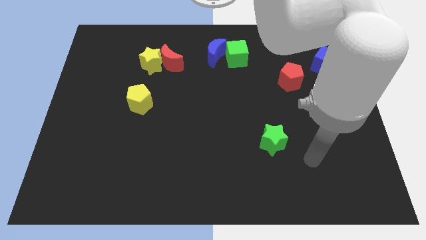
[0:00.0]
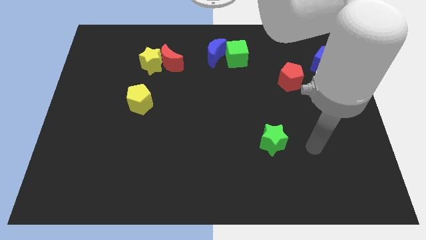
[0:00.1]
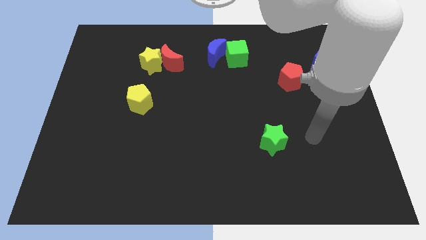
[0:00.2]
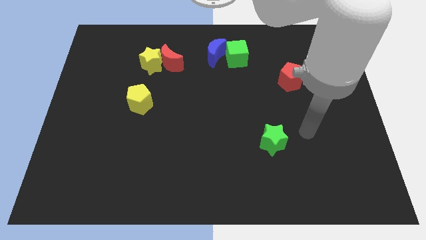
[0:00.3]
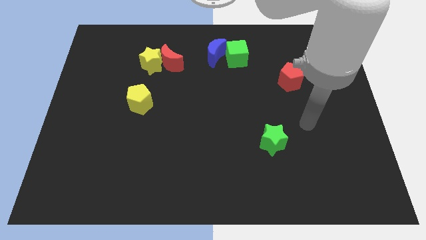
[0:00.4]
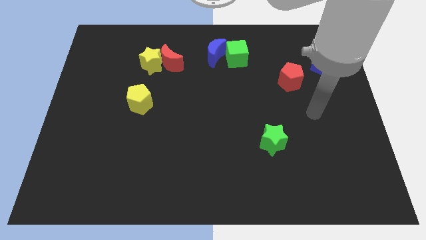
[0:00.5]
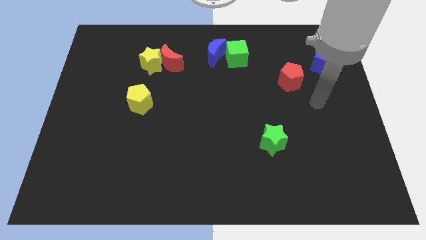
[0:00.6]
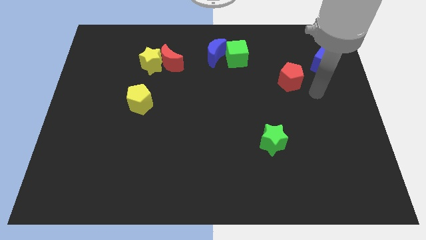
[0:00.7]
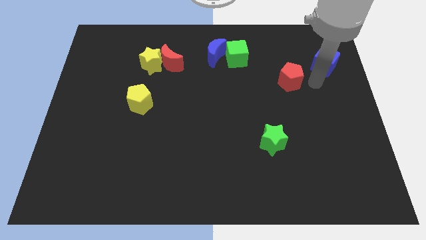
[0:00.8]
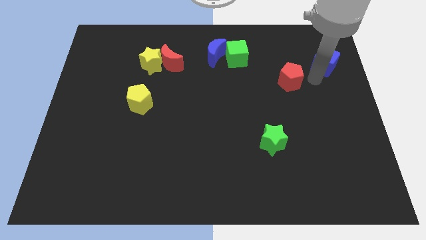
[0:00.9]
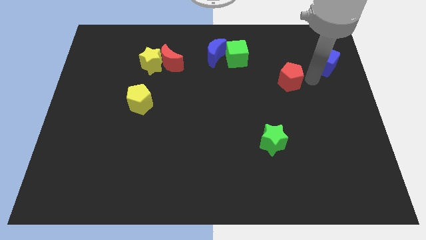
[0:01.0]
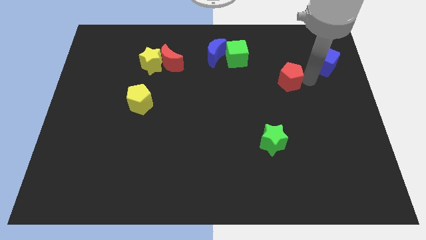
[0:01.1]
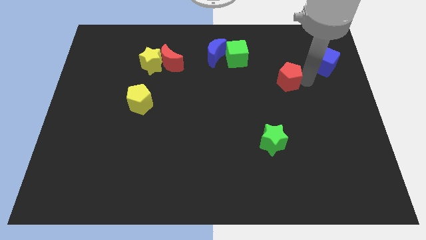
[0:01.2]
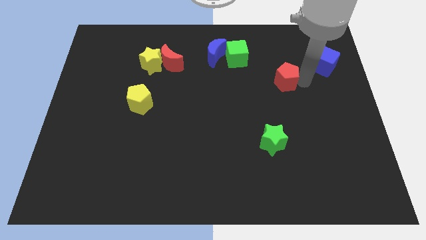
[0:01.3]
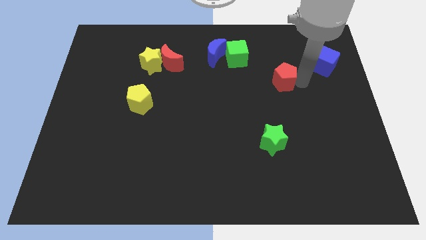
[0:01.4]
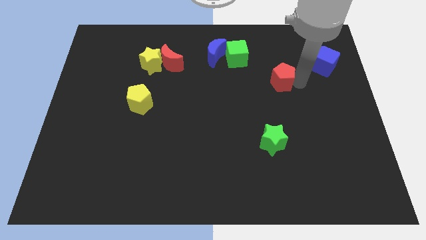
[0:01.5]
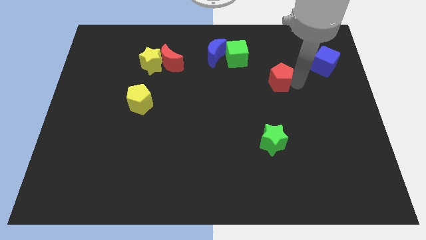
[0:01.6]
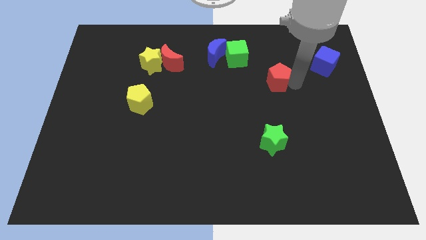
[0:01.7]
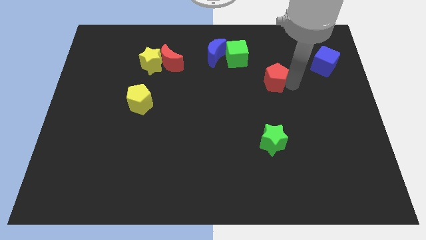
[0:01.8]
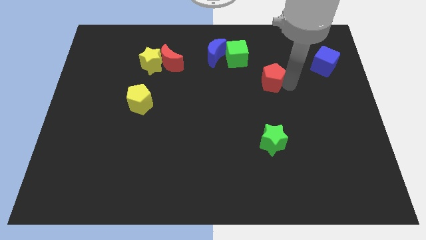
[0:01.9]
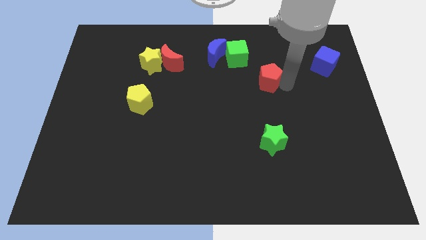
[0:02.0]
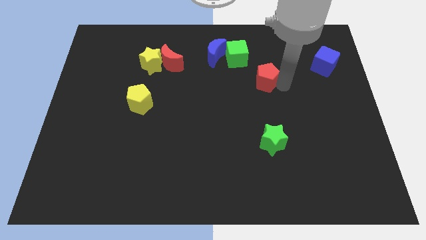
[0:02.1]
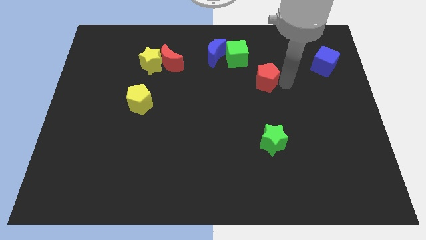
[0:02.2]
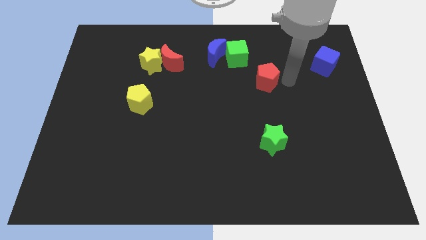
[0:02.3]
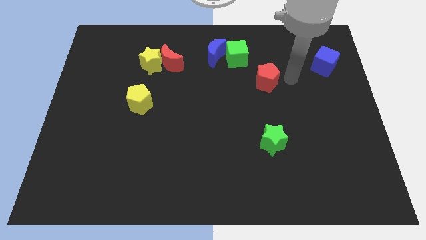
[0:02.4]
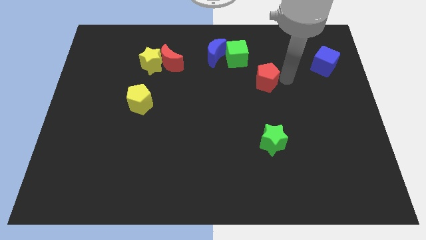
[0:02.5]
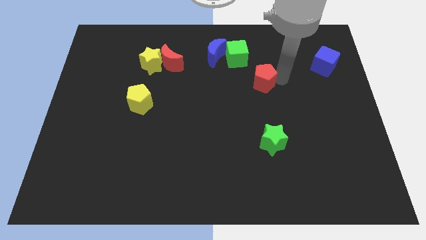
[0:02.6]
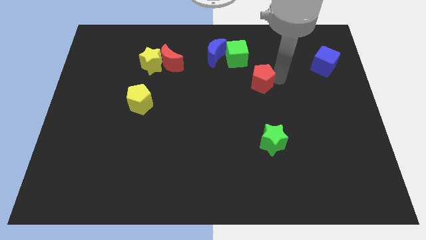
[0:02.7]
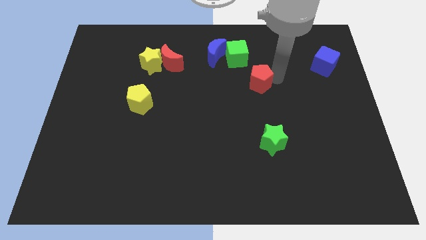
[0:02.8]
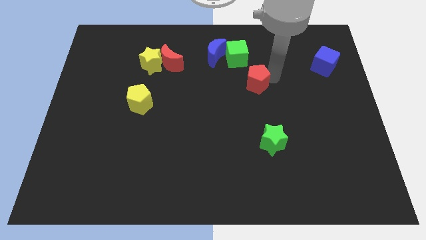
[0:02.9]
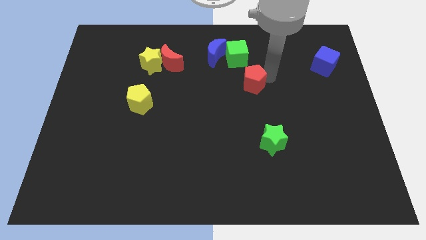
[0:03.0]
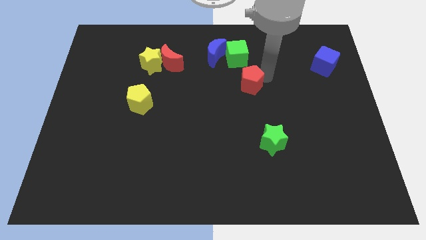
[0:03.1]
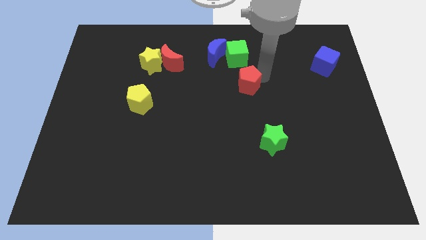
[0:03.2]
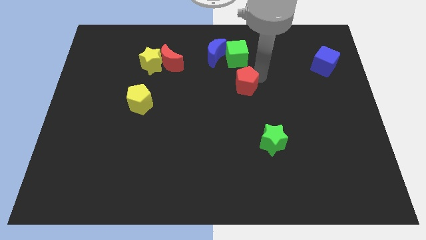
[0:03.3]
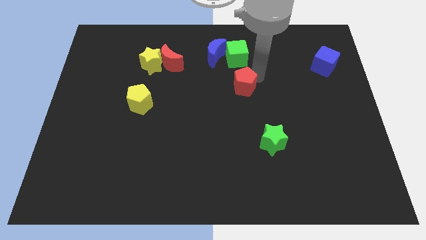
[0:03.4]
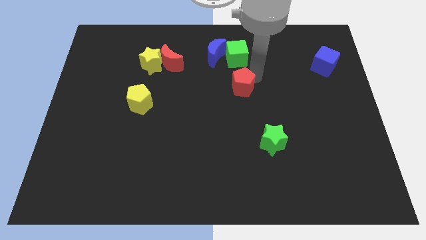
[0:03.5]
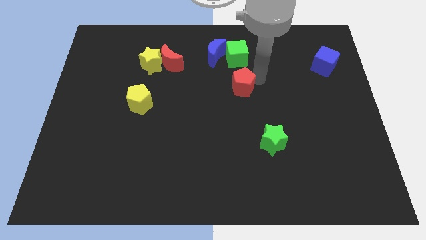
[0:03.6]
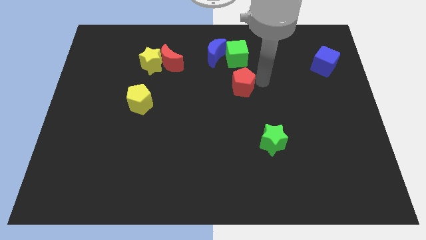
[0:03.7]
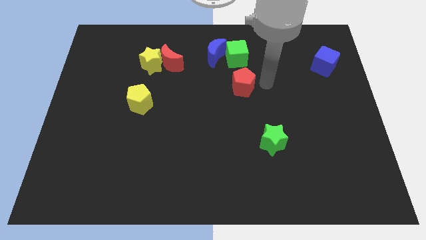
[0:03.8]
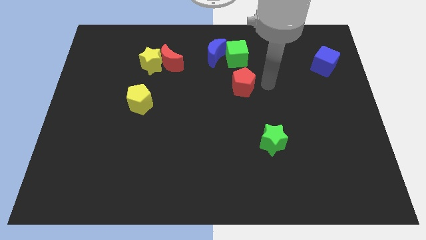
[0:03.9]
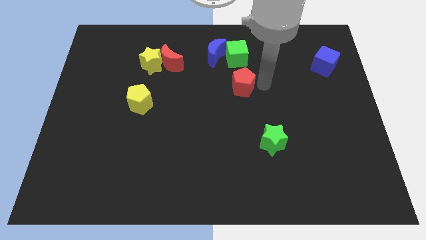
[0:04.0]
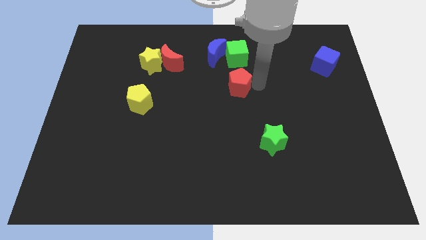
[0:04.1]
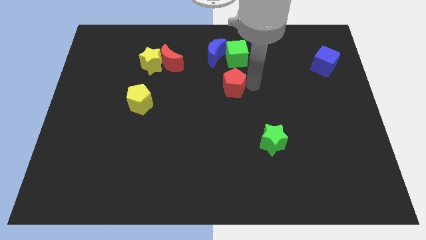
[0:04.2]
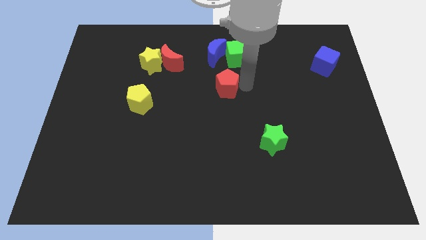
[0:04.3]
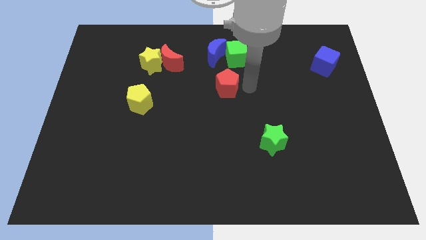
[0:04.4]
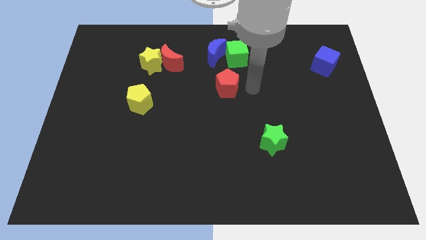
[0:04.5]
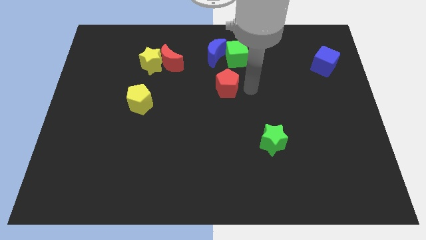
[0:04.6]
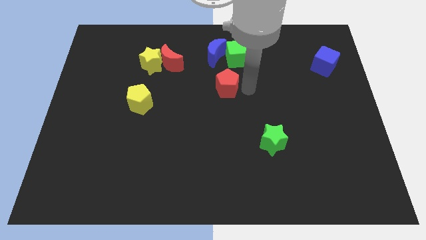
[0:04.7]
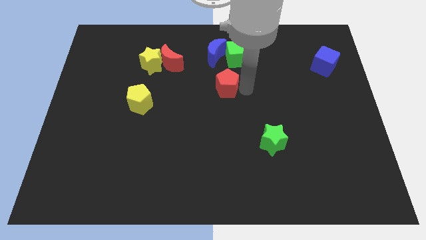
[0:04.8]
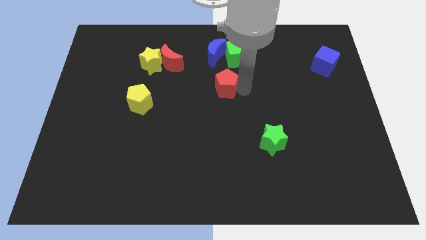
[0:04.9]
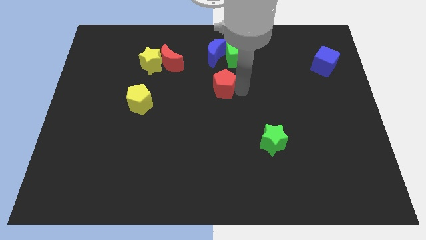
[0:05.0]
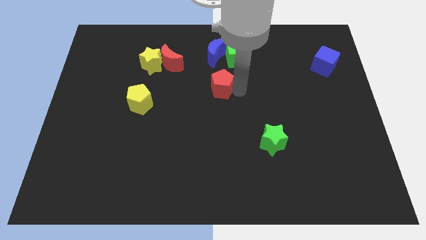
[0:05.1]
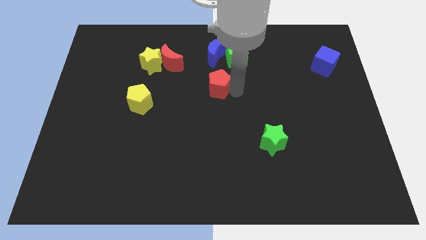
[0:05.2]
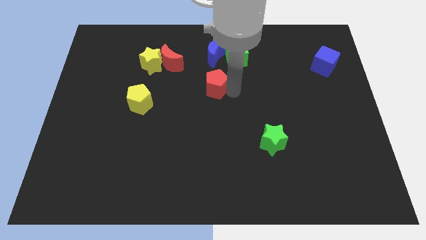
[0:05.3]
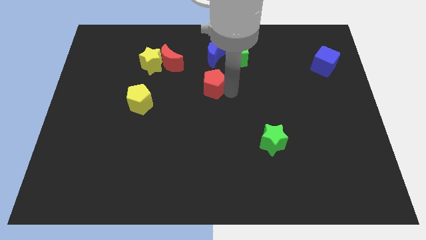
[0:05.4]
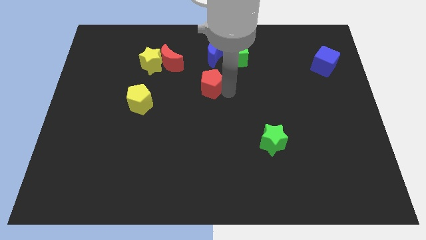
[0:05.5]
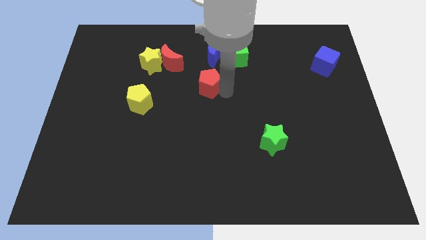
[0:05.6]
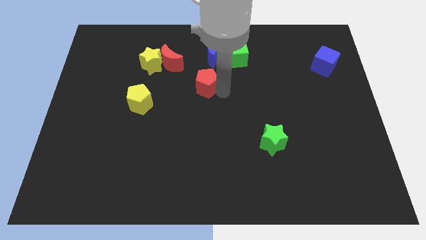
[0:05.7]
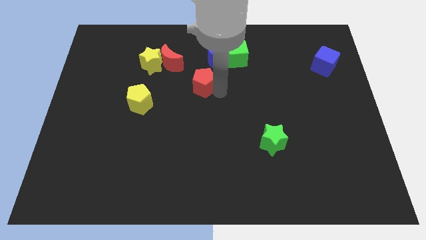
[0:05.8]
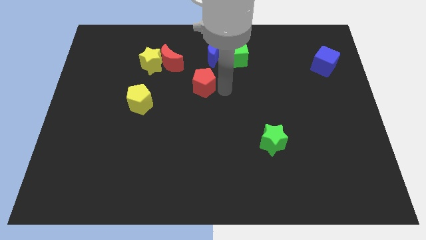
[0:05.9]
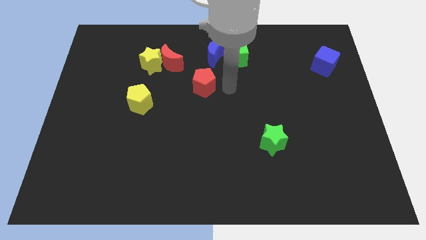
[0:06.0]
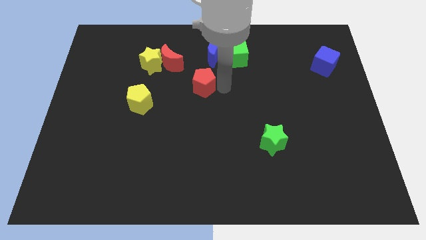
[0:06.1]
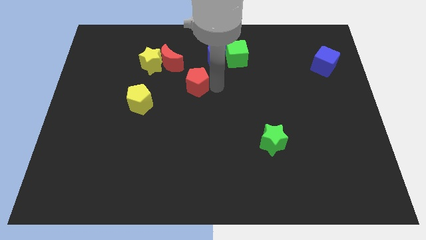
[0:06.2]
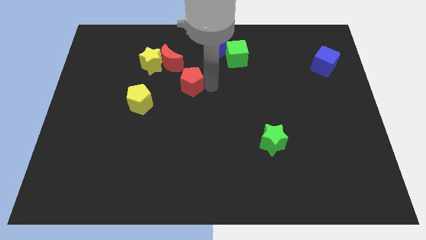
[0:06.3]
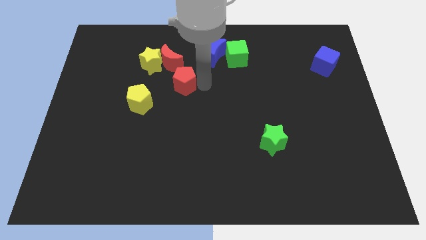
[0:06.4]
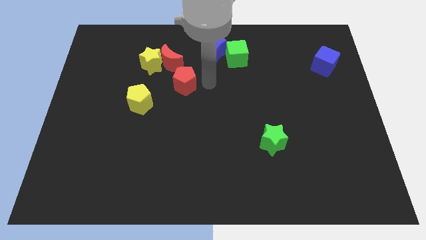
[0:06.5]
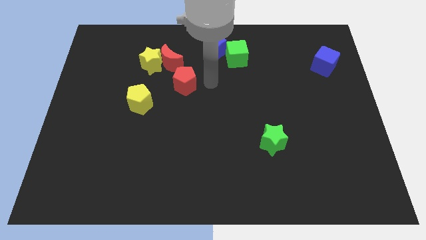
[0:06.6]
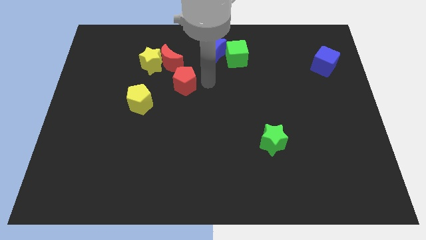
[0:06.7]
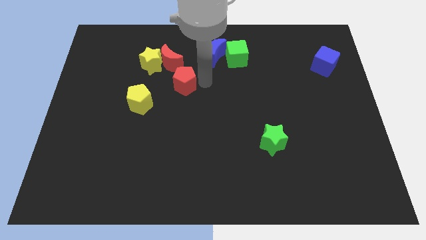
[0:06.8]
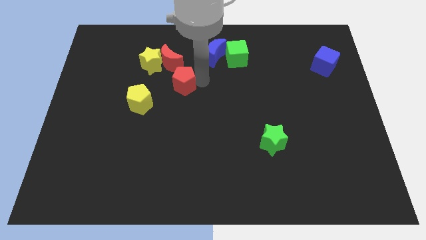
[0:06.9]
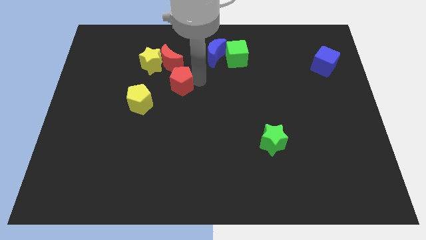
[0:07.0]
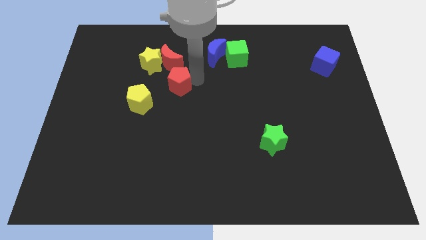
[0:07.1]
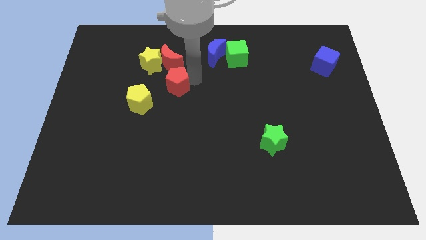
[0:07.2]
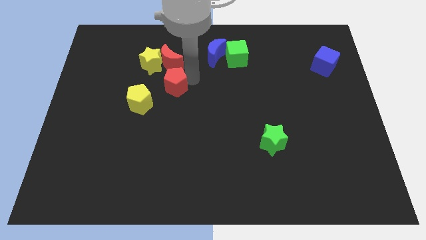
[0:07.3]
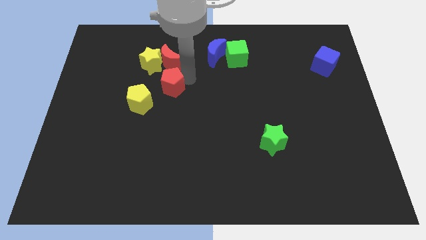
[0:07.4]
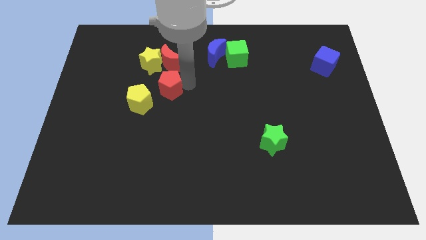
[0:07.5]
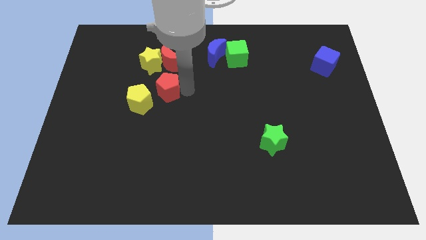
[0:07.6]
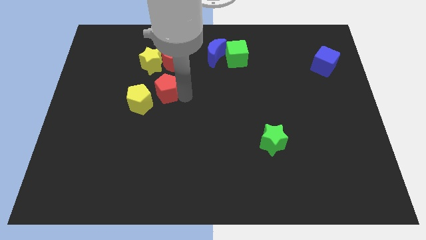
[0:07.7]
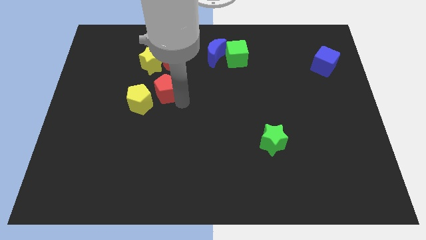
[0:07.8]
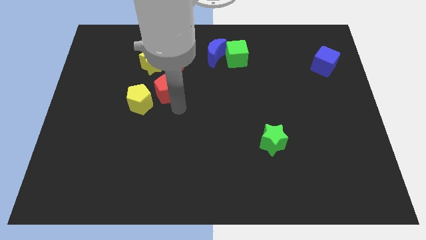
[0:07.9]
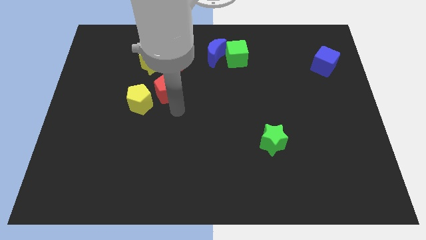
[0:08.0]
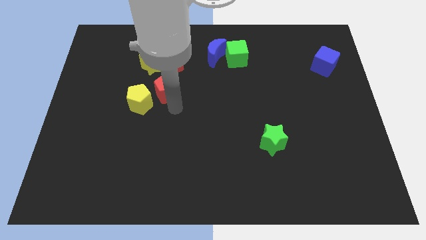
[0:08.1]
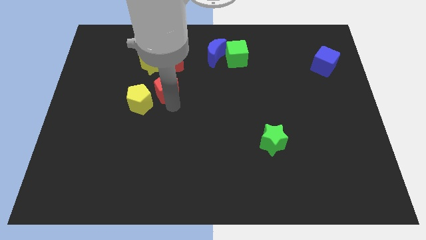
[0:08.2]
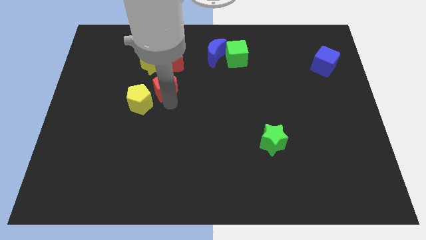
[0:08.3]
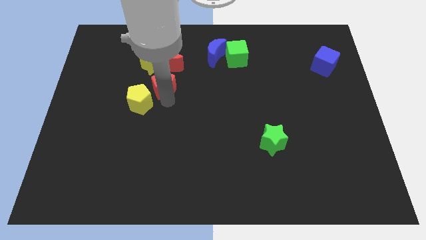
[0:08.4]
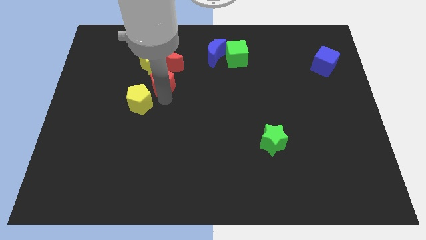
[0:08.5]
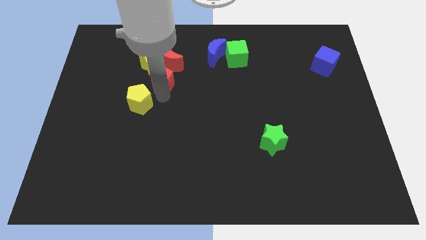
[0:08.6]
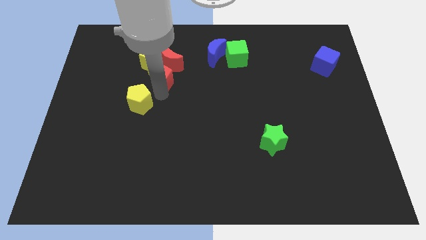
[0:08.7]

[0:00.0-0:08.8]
slide the red pentagon towards the yellow star
